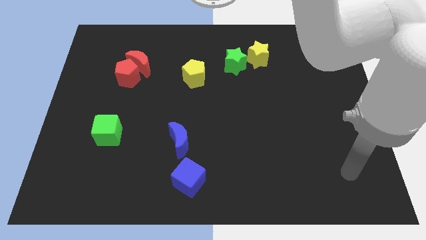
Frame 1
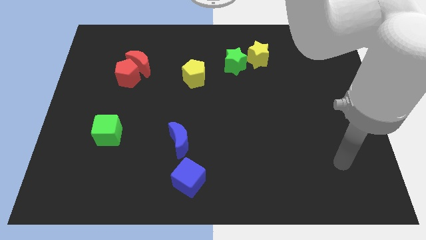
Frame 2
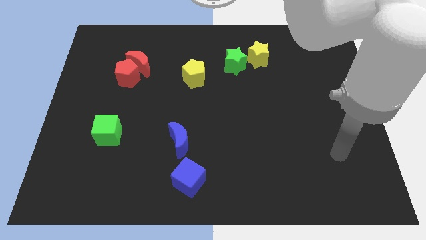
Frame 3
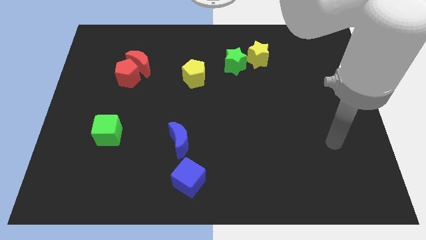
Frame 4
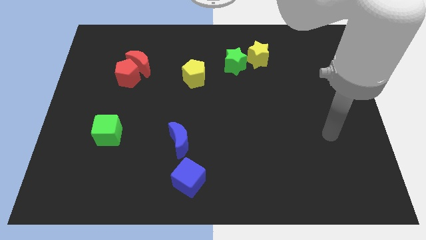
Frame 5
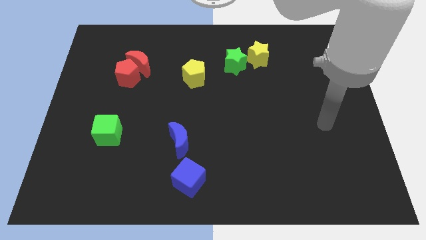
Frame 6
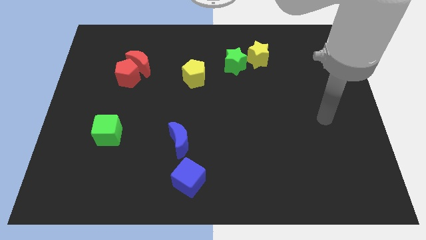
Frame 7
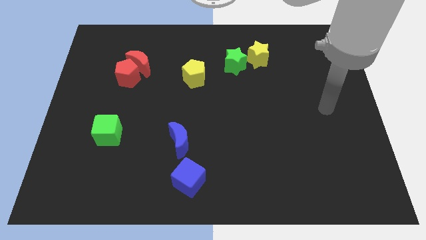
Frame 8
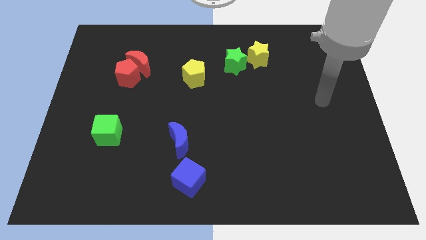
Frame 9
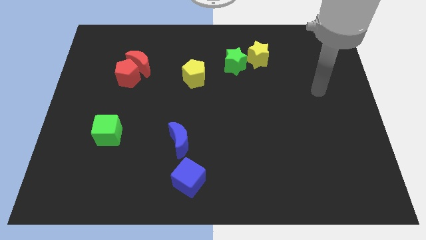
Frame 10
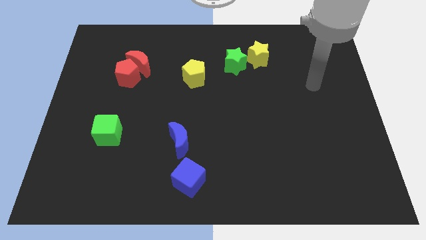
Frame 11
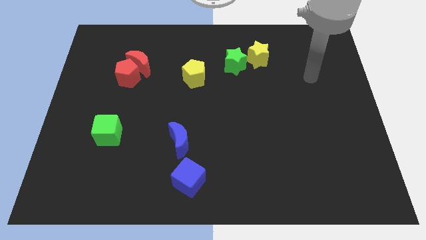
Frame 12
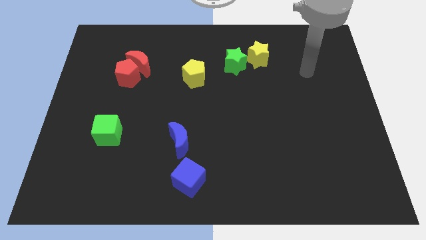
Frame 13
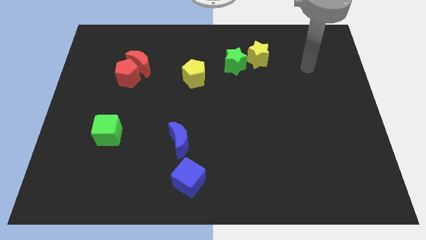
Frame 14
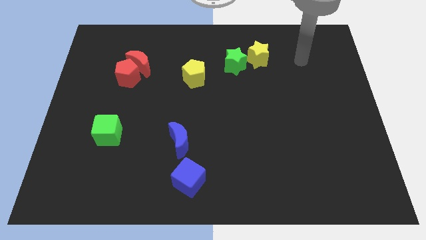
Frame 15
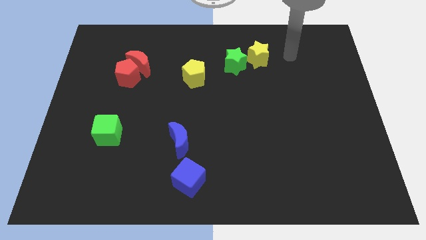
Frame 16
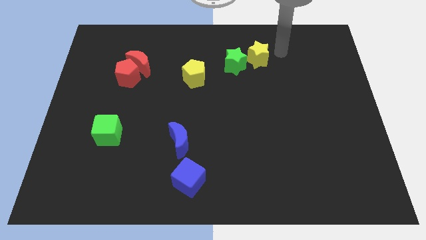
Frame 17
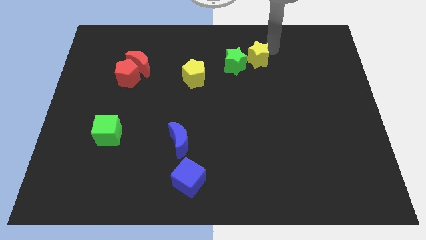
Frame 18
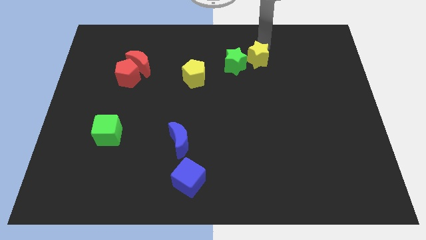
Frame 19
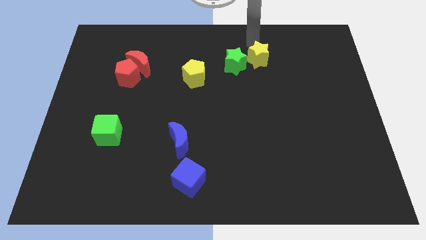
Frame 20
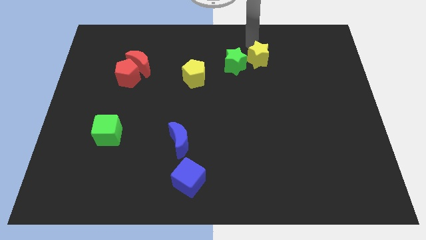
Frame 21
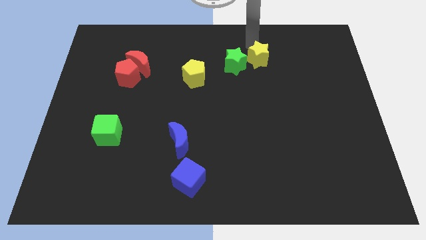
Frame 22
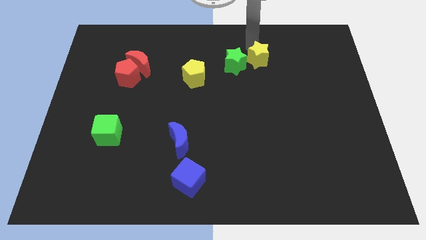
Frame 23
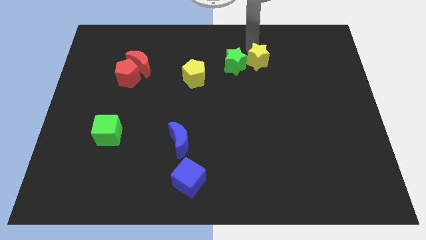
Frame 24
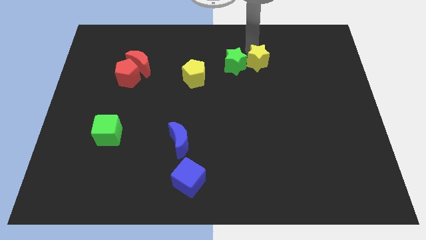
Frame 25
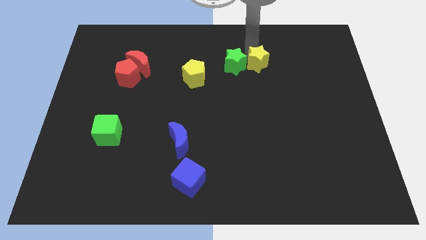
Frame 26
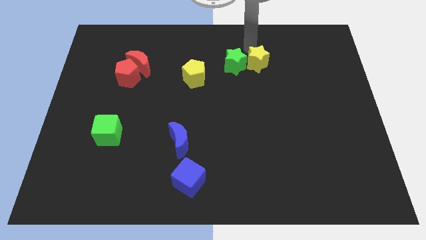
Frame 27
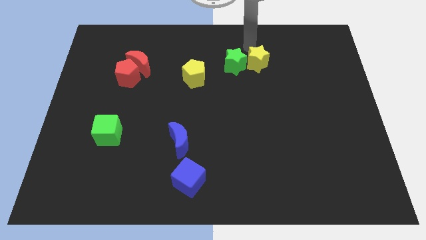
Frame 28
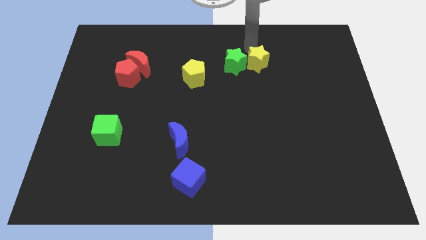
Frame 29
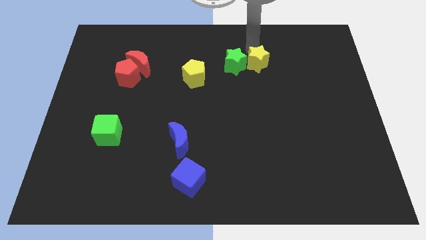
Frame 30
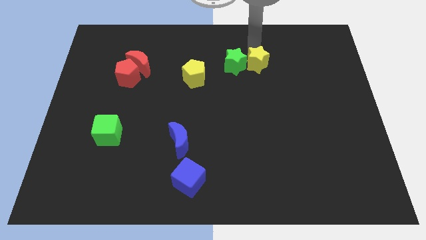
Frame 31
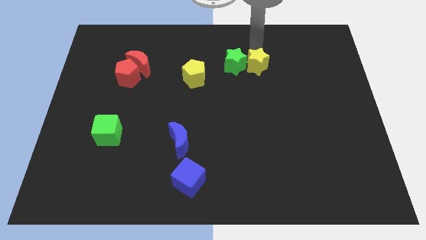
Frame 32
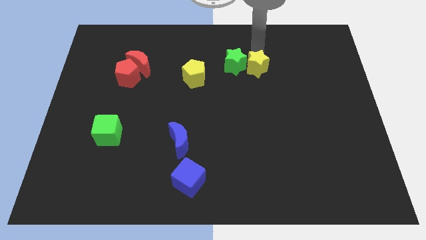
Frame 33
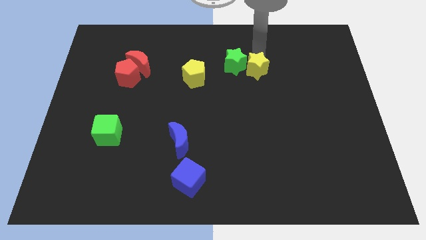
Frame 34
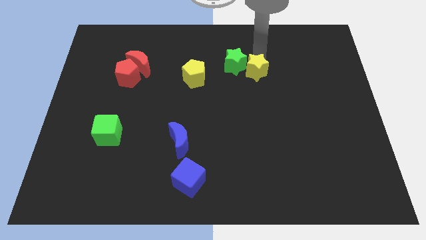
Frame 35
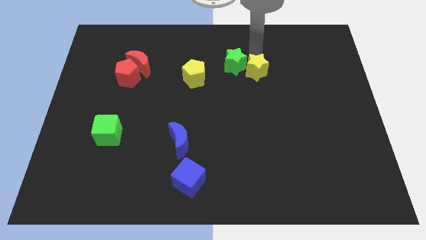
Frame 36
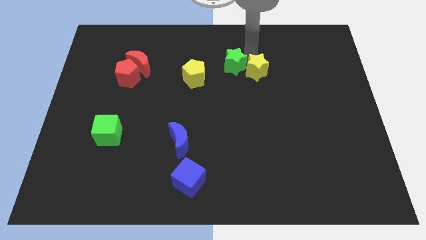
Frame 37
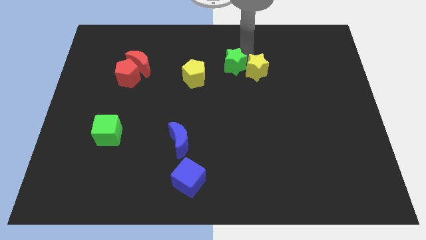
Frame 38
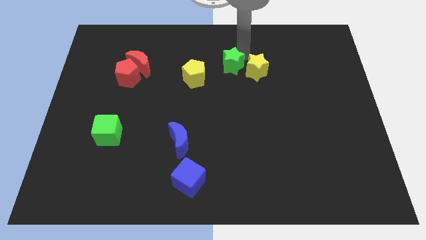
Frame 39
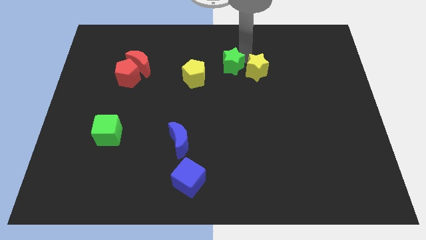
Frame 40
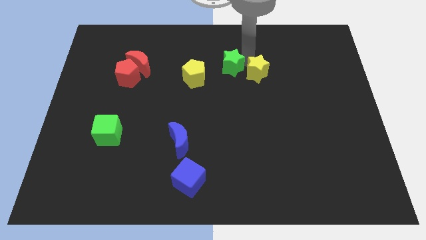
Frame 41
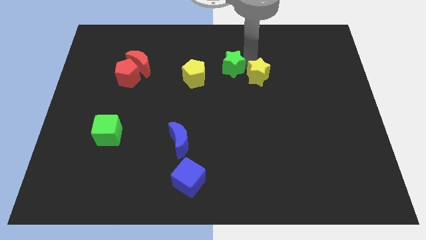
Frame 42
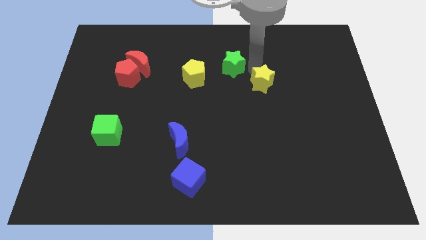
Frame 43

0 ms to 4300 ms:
slide the yellow star a little downwards

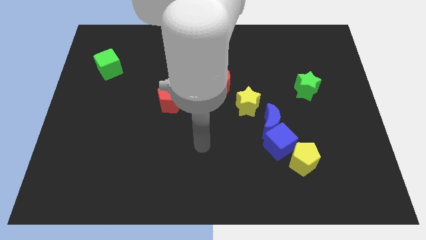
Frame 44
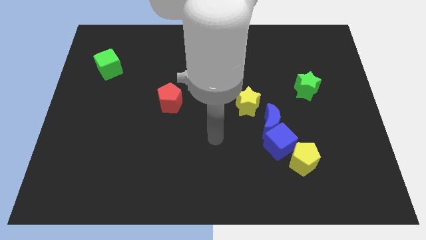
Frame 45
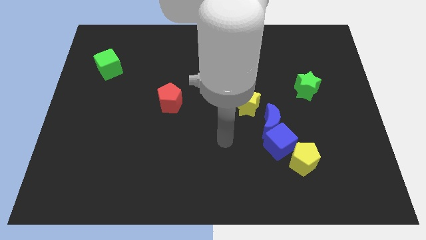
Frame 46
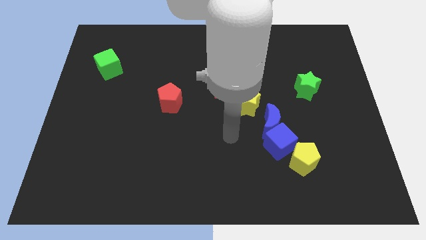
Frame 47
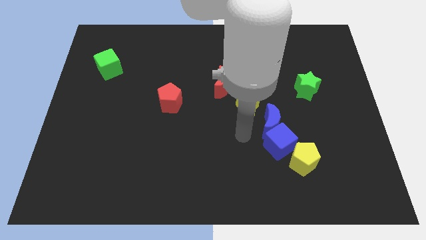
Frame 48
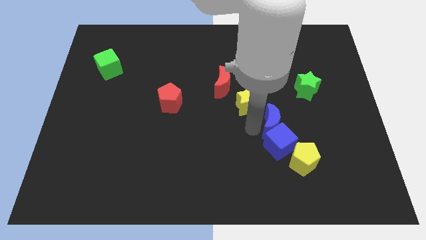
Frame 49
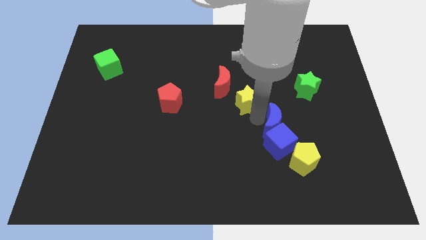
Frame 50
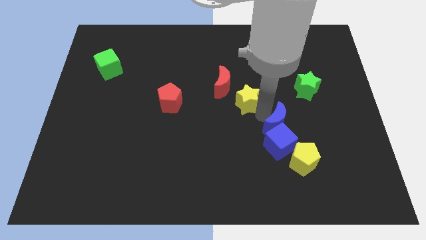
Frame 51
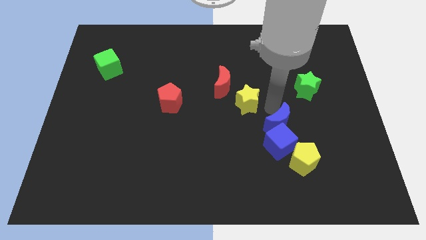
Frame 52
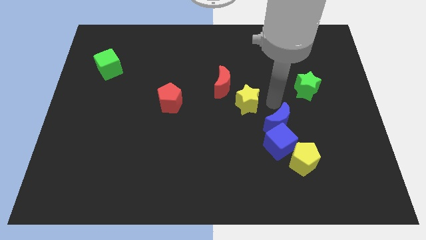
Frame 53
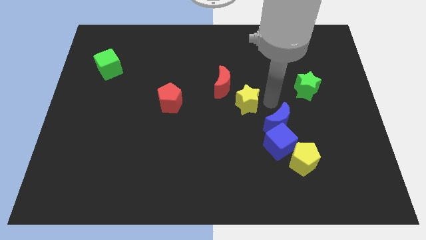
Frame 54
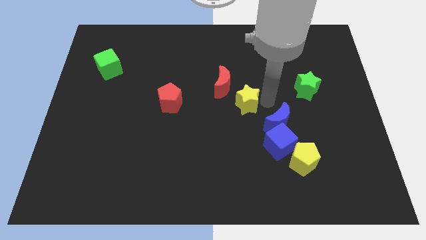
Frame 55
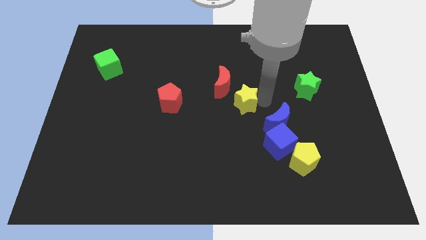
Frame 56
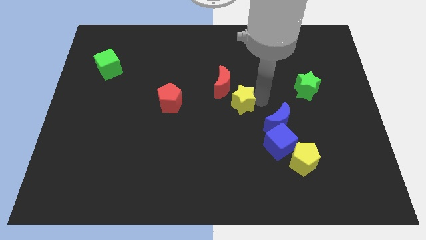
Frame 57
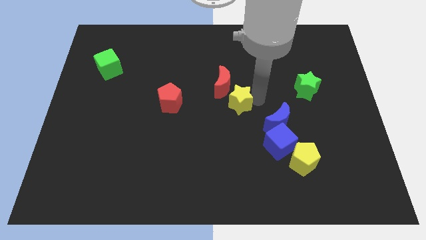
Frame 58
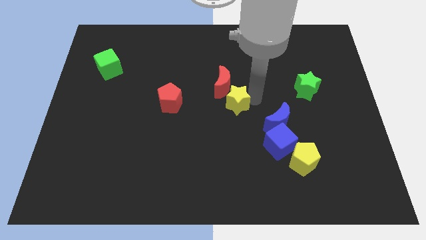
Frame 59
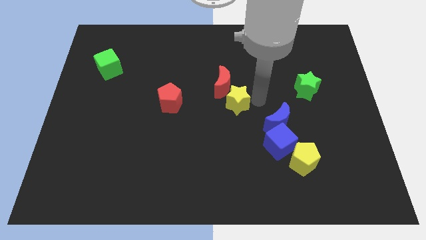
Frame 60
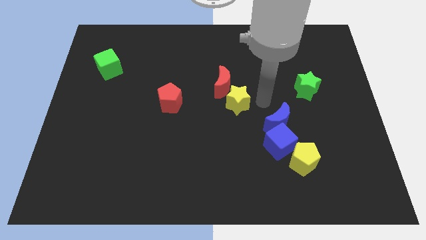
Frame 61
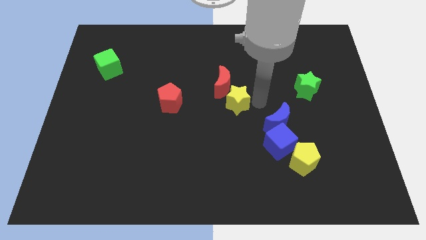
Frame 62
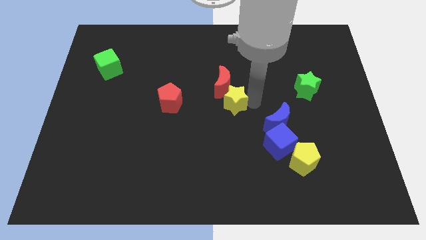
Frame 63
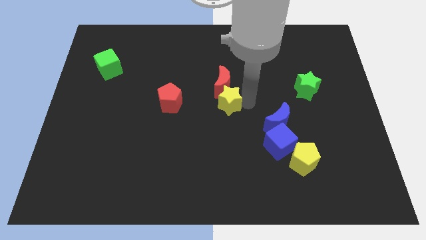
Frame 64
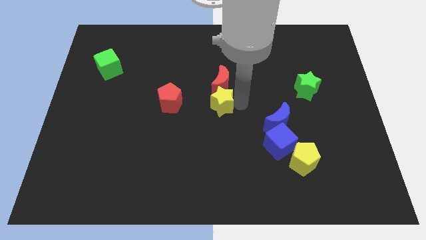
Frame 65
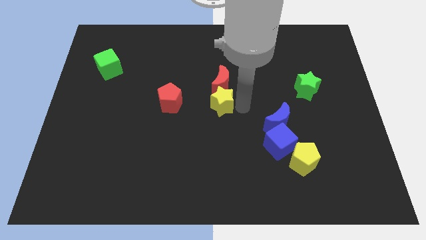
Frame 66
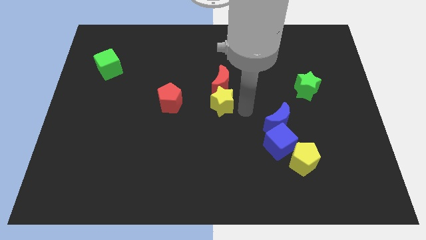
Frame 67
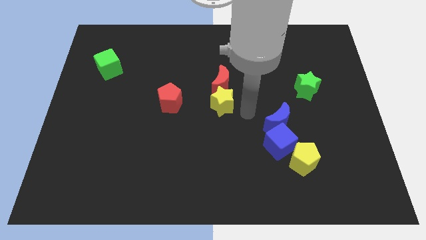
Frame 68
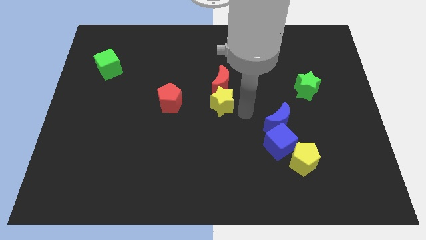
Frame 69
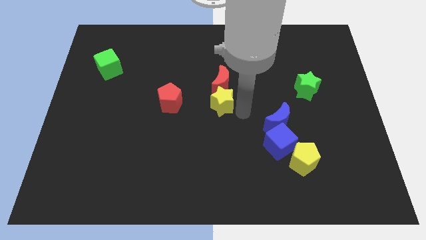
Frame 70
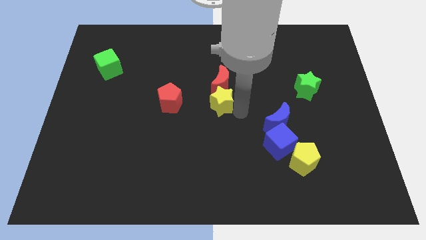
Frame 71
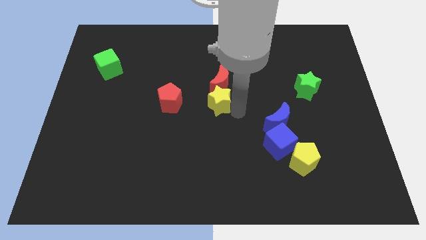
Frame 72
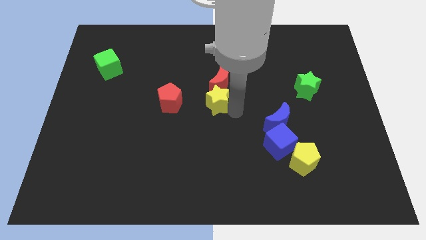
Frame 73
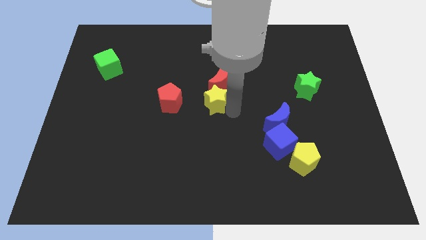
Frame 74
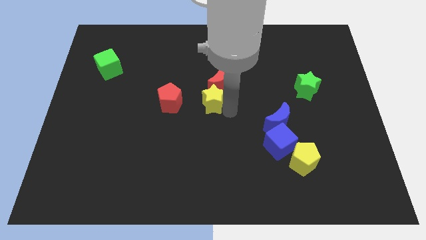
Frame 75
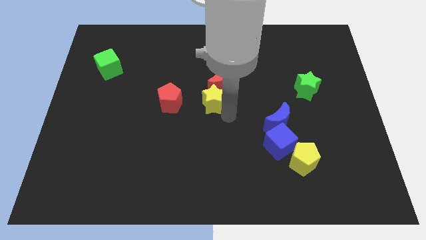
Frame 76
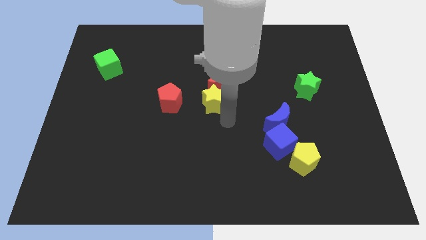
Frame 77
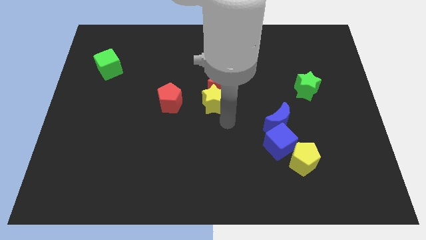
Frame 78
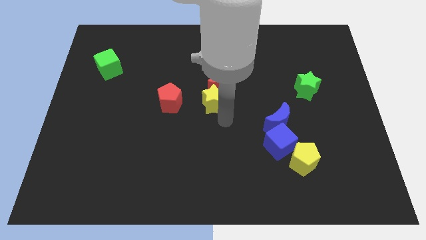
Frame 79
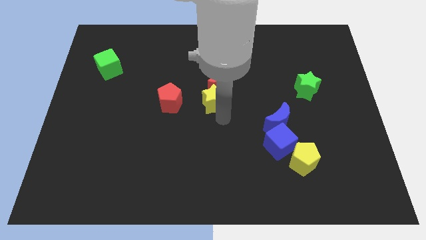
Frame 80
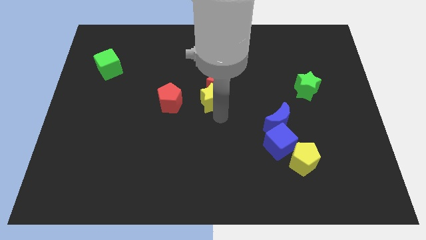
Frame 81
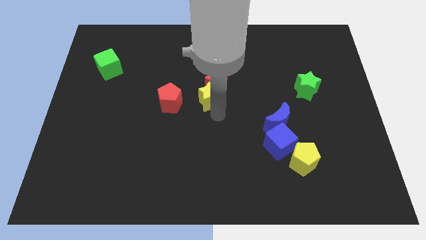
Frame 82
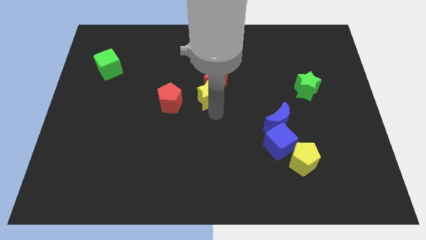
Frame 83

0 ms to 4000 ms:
slightly move the yellow star diagonally up and to the left
